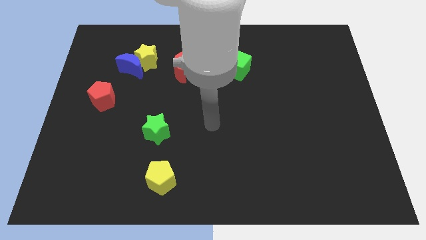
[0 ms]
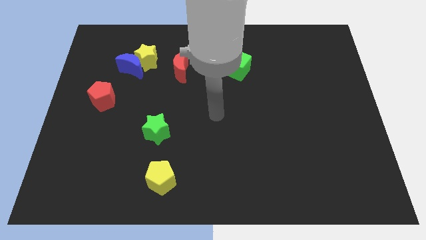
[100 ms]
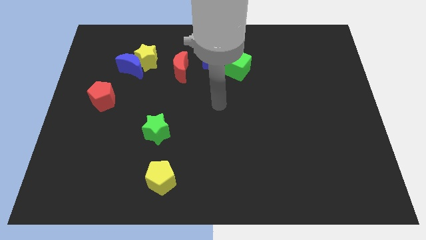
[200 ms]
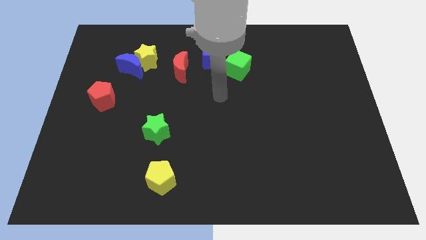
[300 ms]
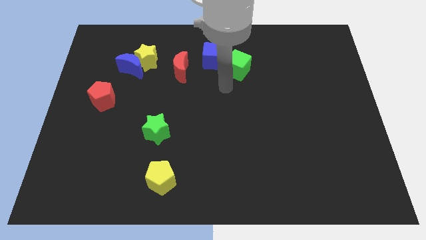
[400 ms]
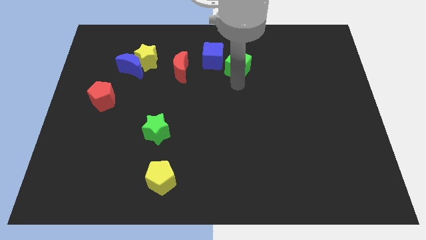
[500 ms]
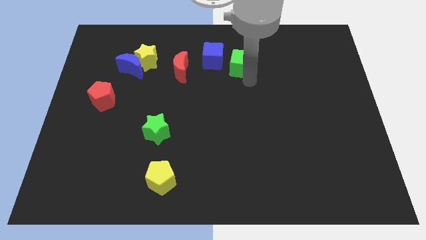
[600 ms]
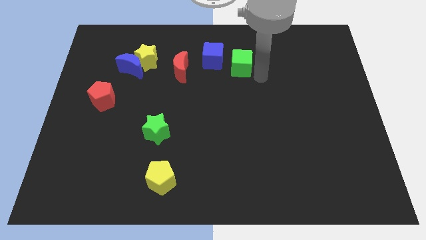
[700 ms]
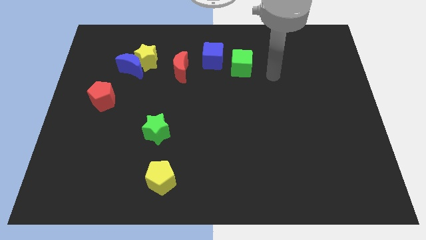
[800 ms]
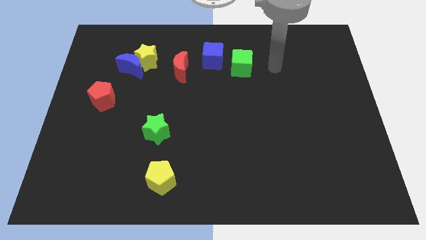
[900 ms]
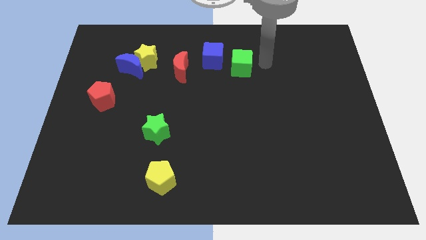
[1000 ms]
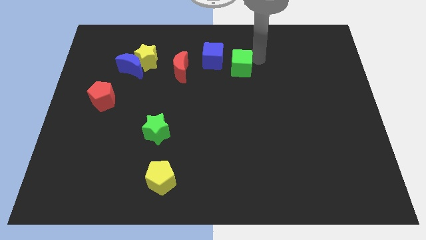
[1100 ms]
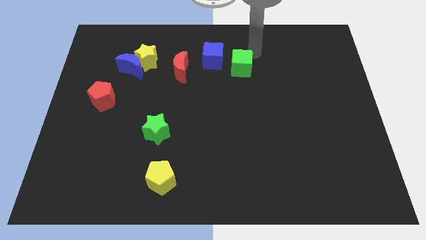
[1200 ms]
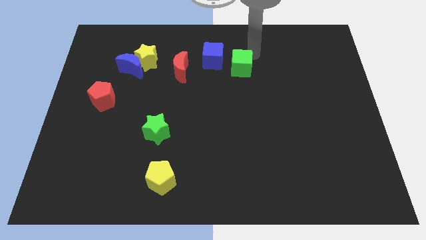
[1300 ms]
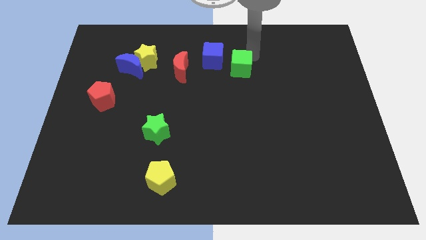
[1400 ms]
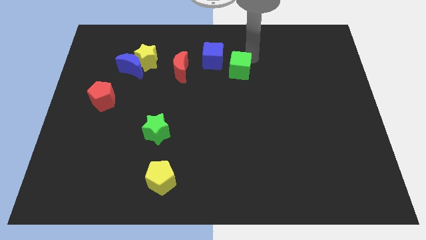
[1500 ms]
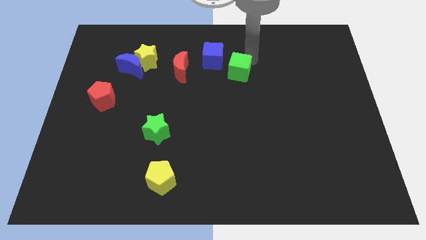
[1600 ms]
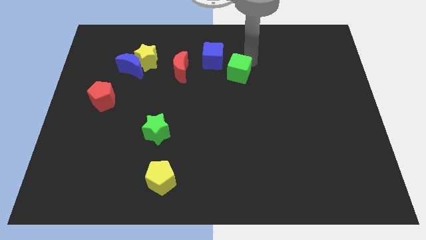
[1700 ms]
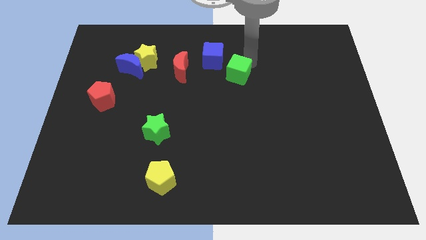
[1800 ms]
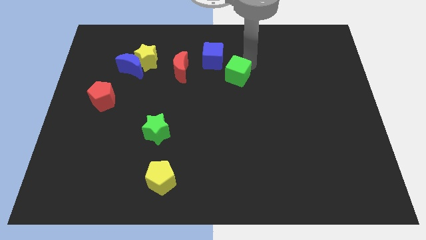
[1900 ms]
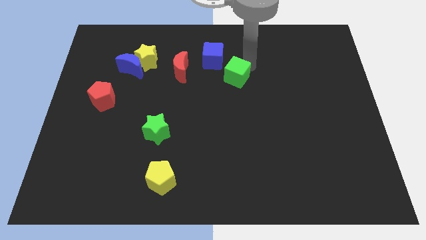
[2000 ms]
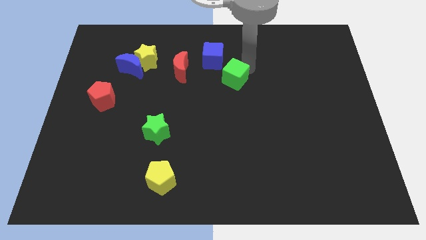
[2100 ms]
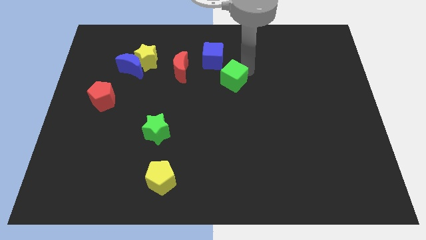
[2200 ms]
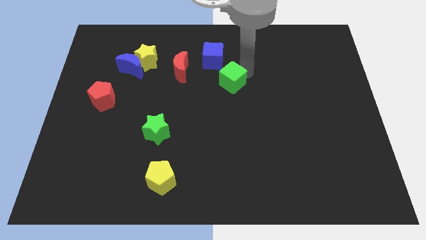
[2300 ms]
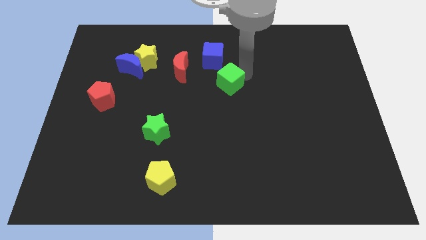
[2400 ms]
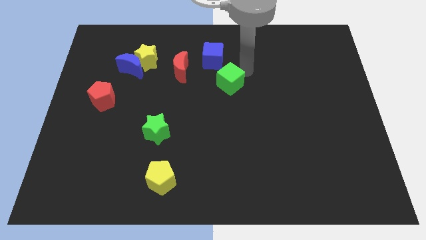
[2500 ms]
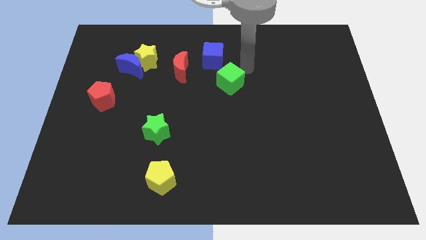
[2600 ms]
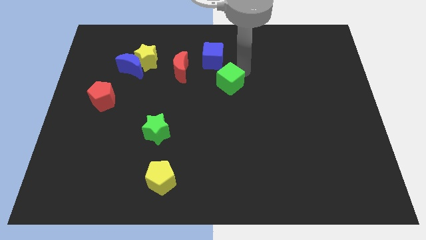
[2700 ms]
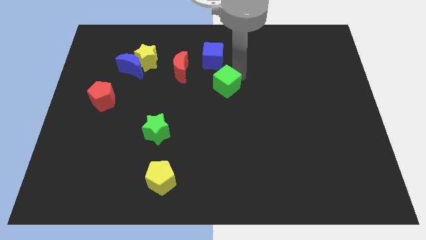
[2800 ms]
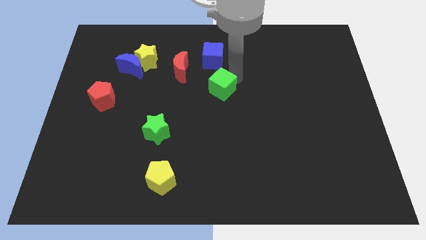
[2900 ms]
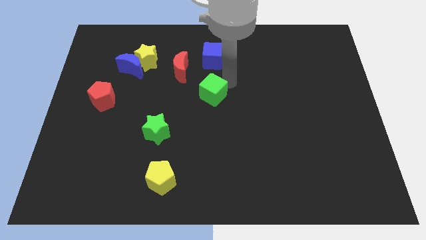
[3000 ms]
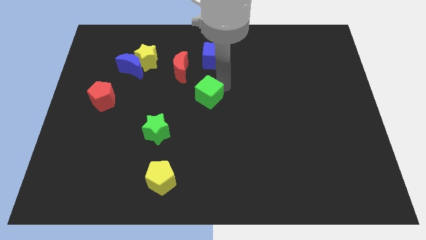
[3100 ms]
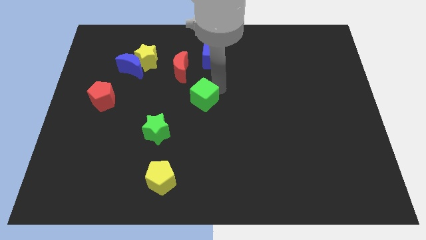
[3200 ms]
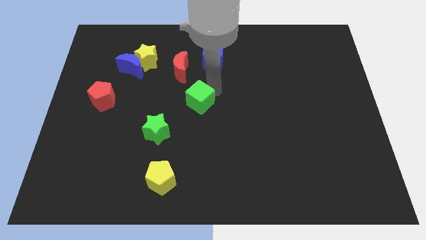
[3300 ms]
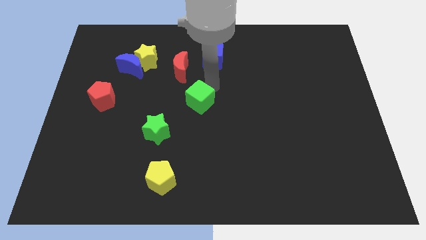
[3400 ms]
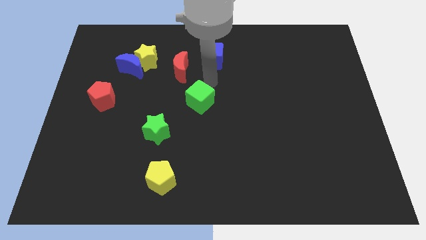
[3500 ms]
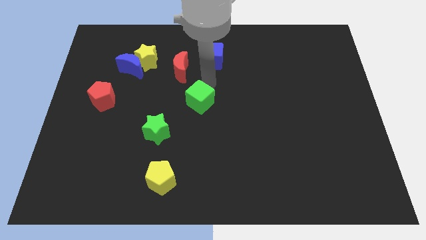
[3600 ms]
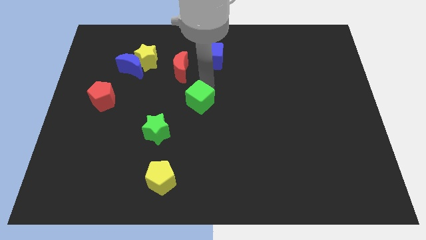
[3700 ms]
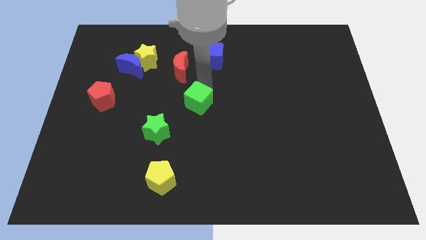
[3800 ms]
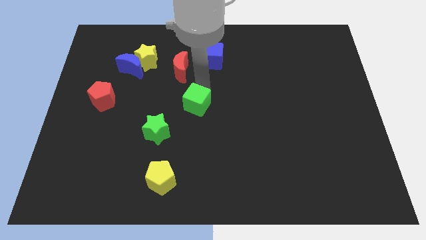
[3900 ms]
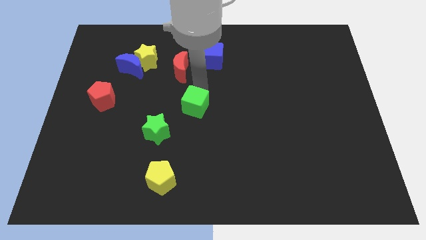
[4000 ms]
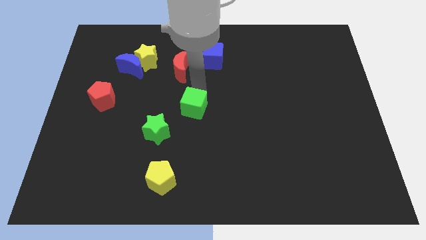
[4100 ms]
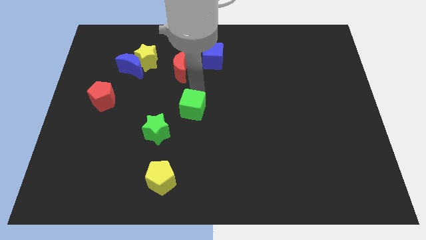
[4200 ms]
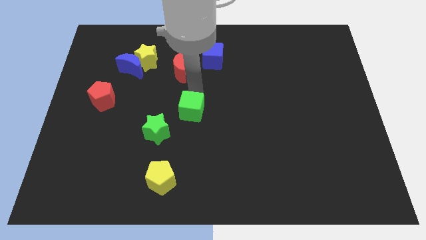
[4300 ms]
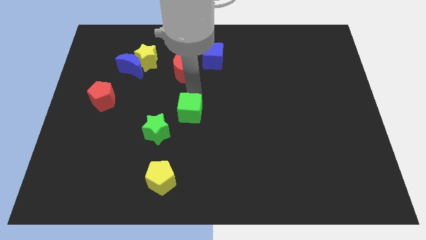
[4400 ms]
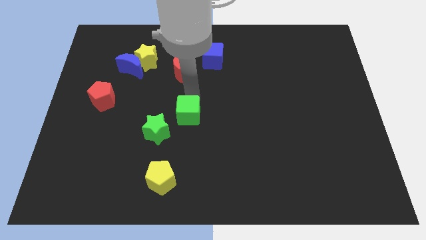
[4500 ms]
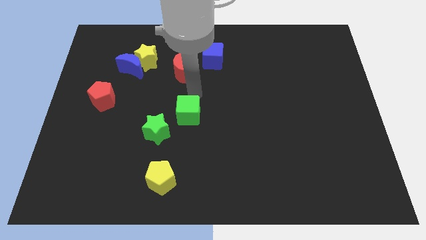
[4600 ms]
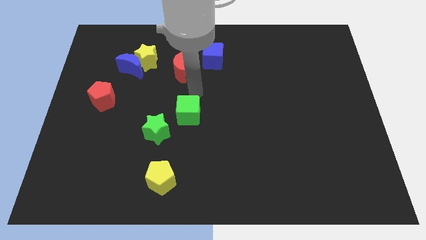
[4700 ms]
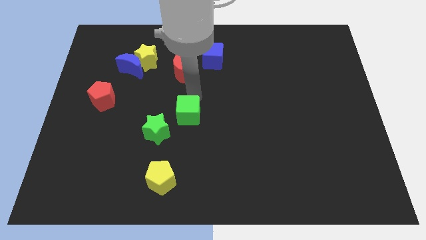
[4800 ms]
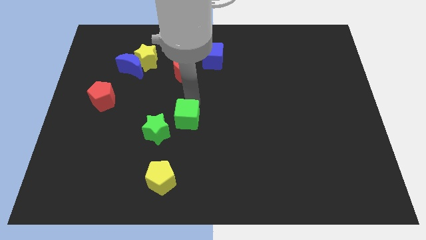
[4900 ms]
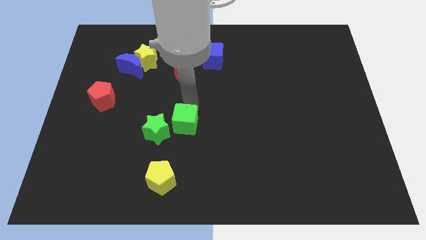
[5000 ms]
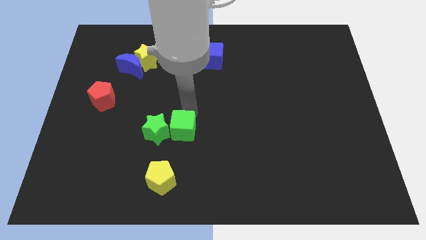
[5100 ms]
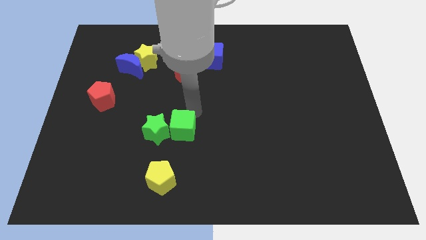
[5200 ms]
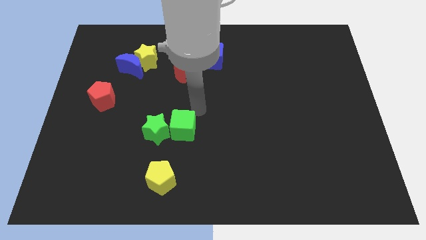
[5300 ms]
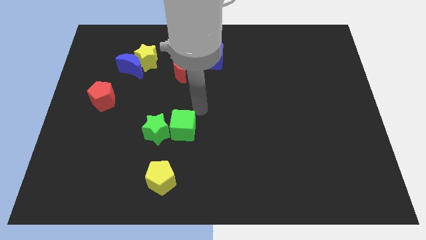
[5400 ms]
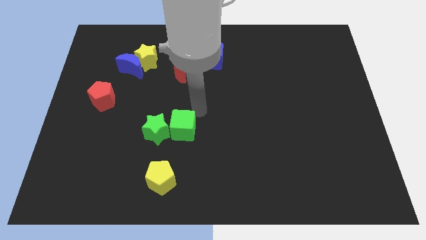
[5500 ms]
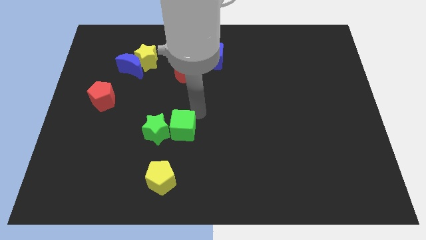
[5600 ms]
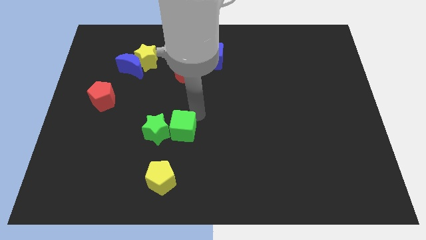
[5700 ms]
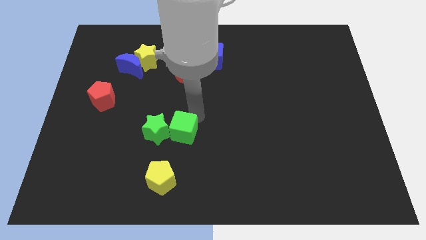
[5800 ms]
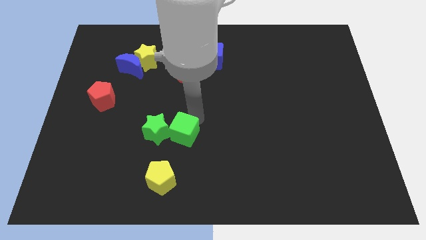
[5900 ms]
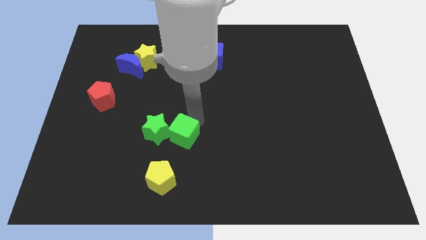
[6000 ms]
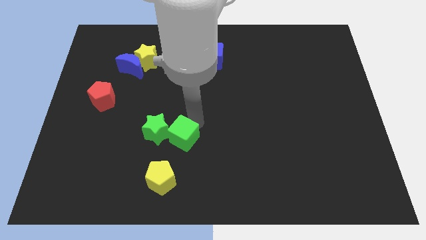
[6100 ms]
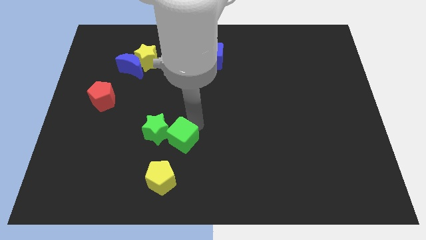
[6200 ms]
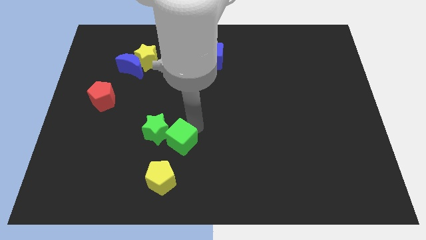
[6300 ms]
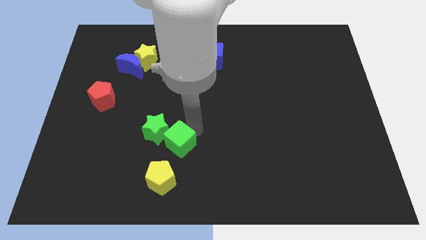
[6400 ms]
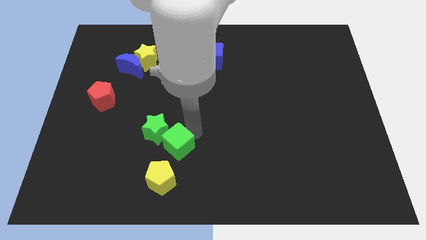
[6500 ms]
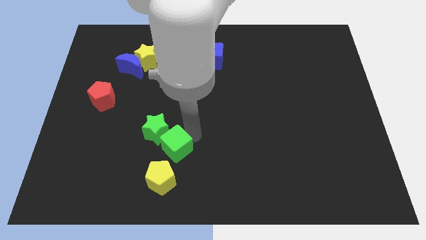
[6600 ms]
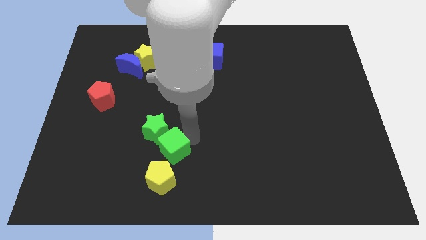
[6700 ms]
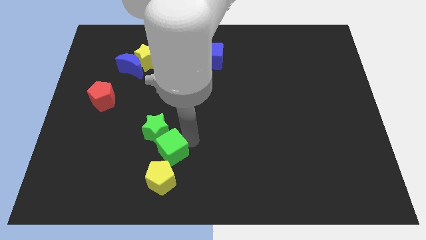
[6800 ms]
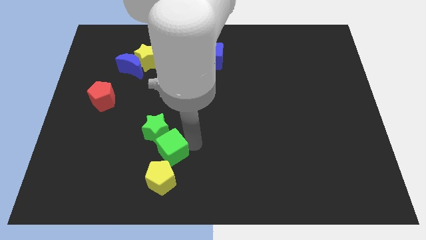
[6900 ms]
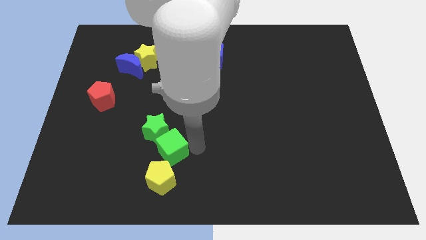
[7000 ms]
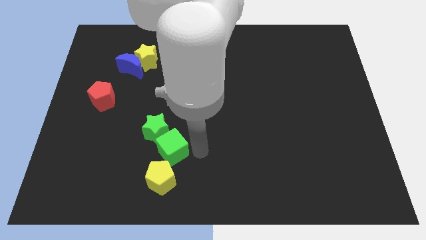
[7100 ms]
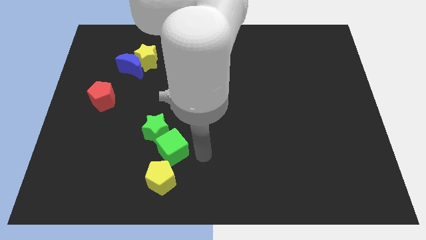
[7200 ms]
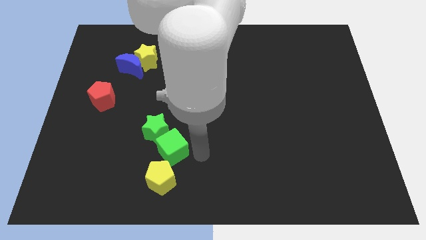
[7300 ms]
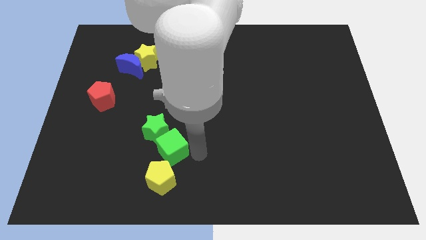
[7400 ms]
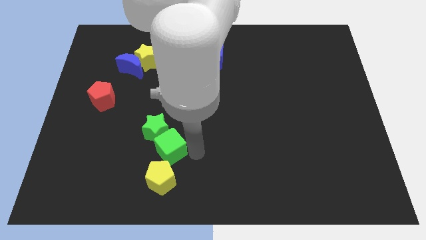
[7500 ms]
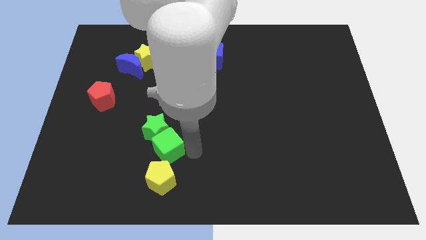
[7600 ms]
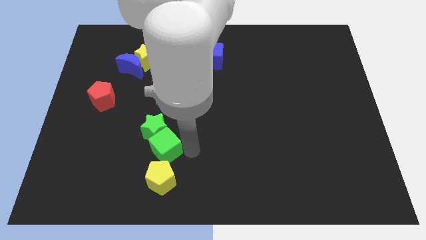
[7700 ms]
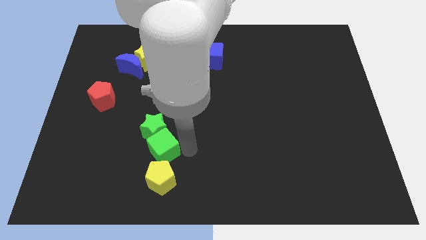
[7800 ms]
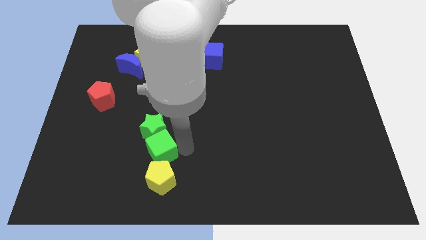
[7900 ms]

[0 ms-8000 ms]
slide the green cube to the top left side of the yellow pentagon
